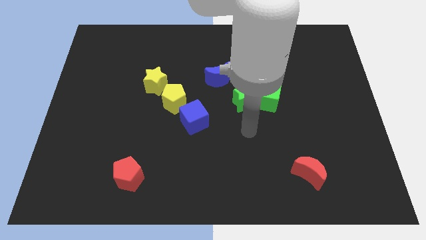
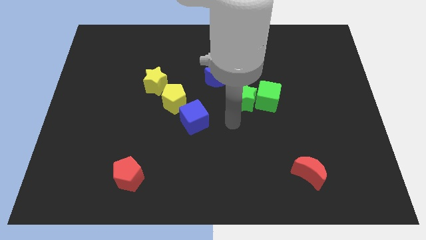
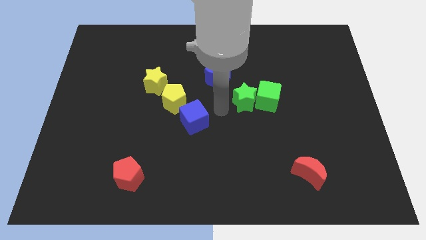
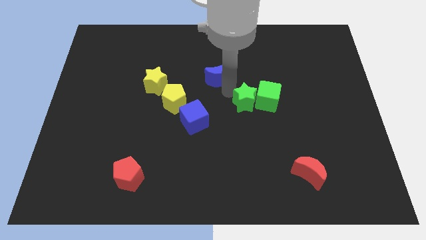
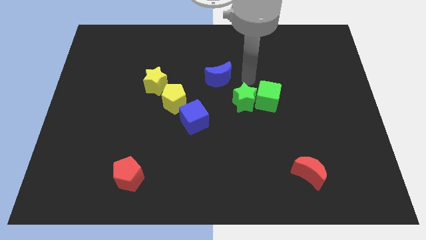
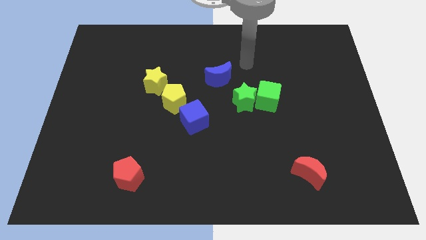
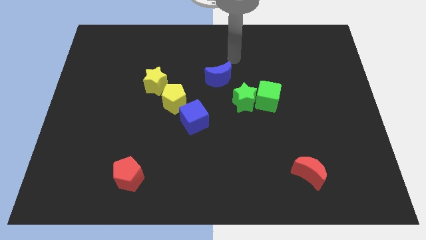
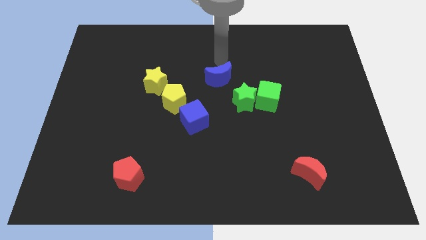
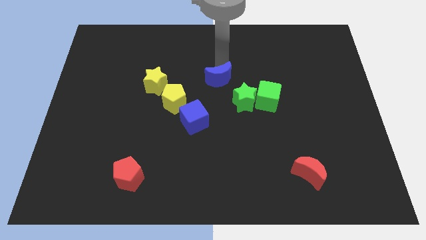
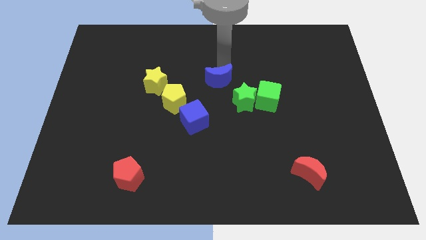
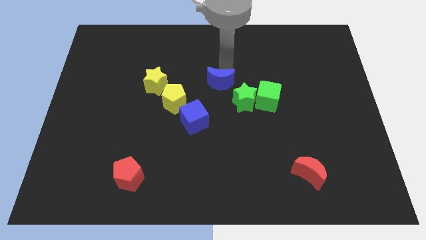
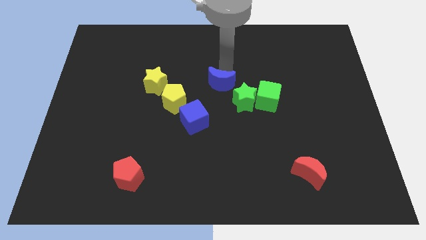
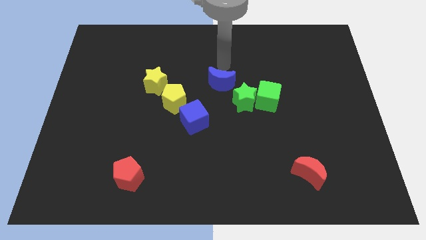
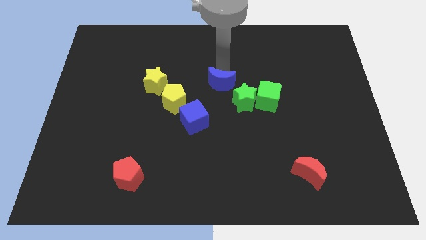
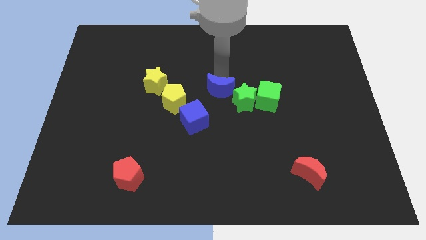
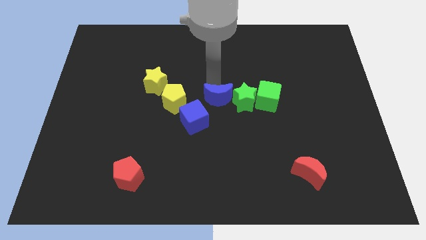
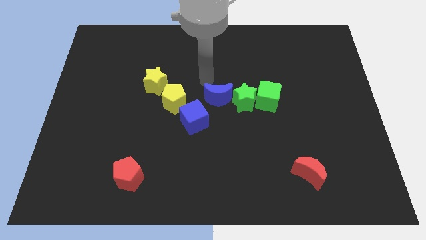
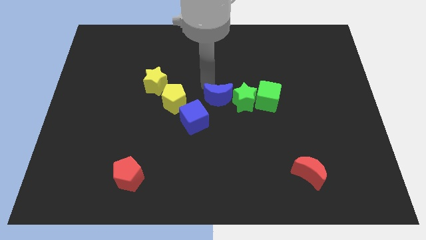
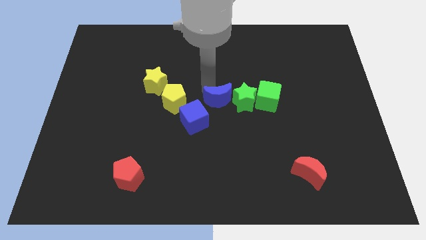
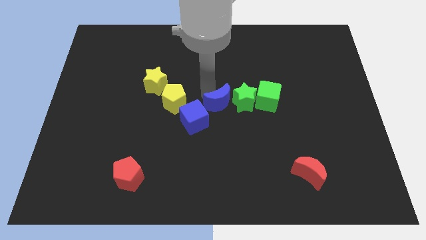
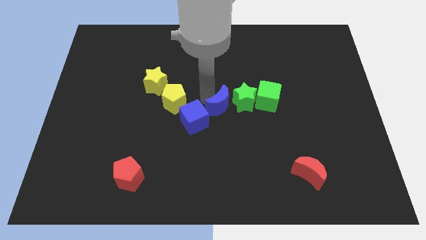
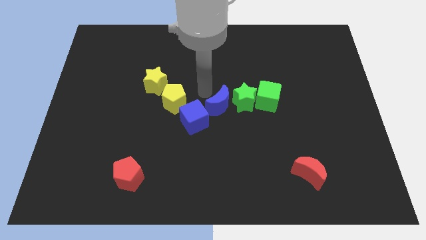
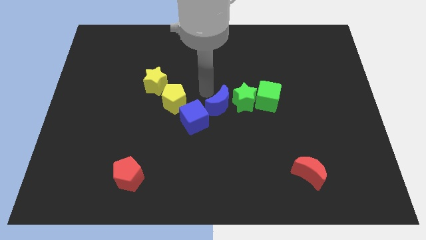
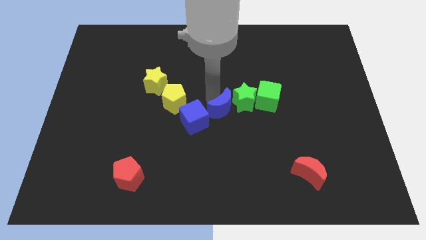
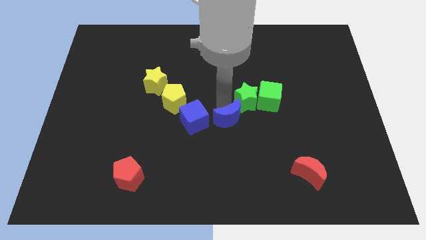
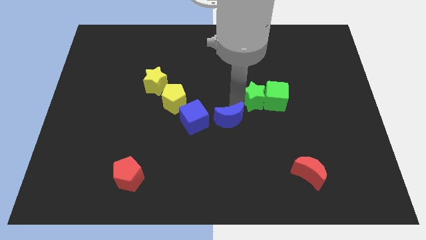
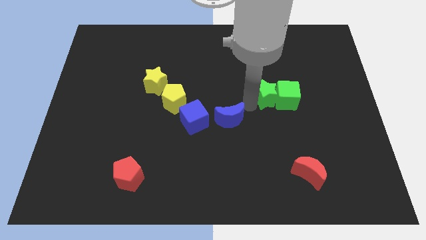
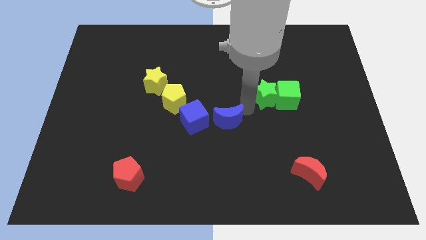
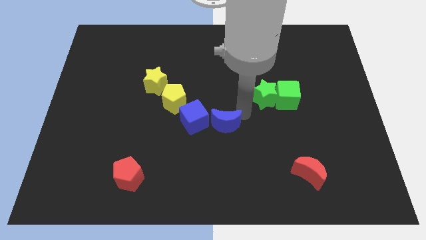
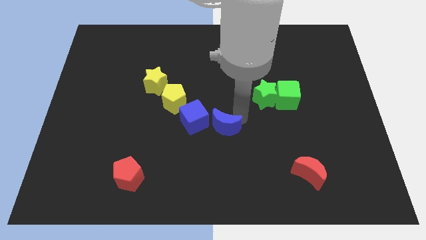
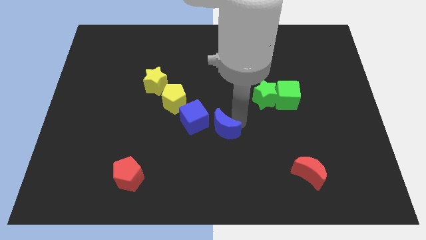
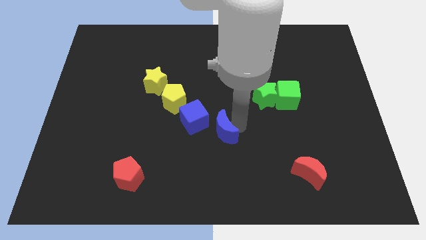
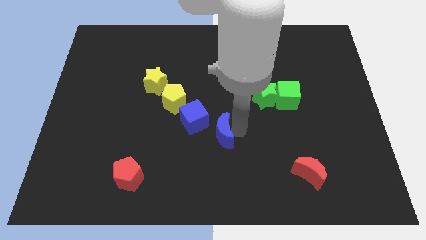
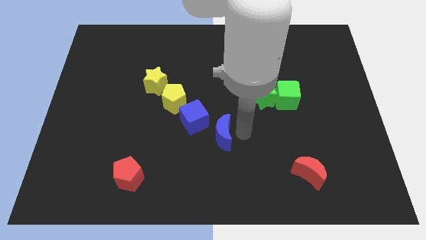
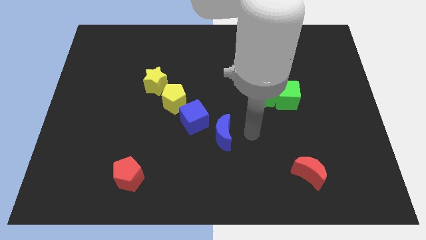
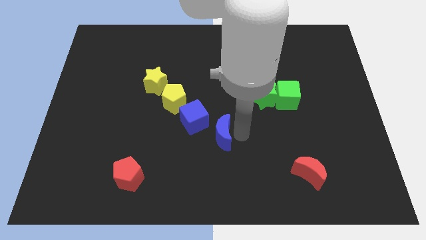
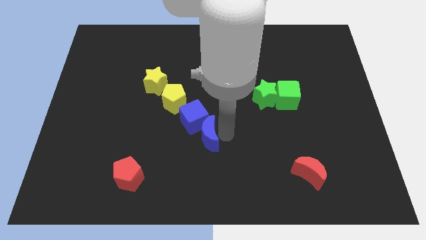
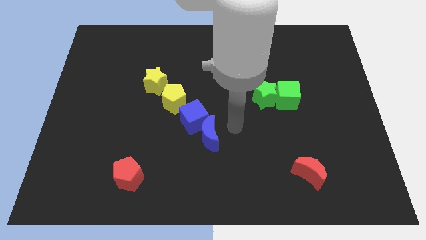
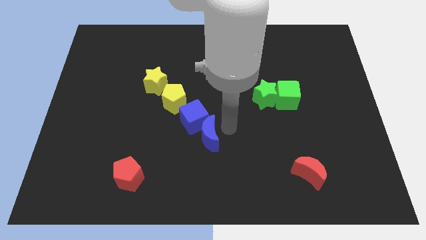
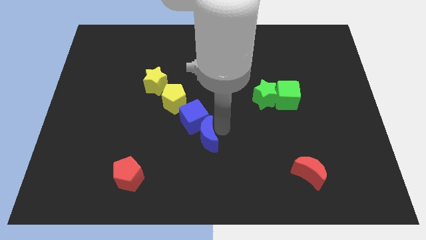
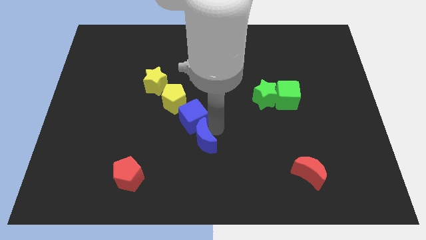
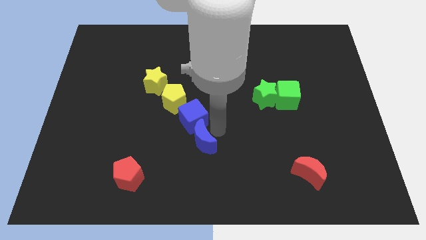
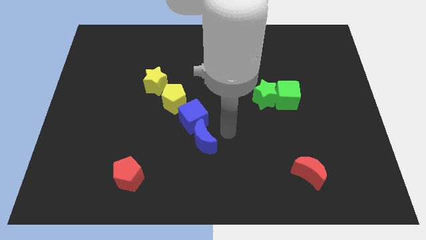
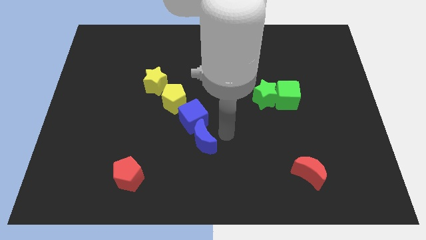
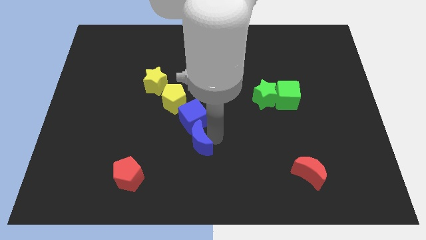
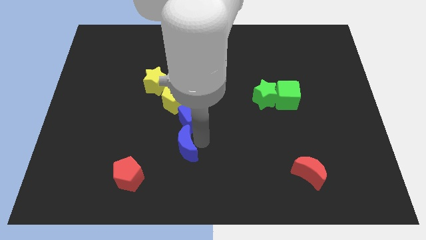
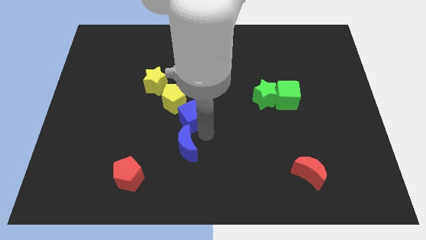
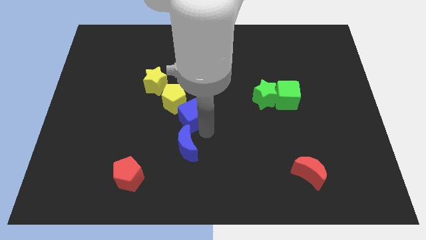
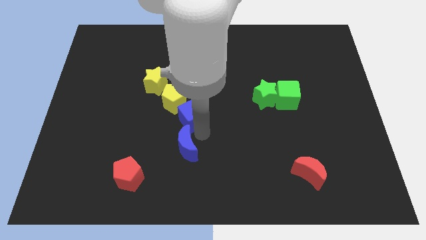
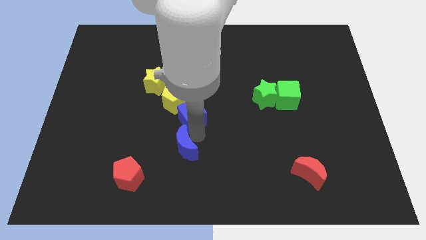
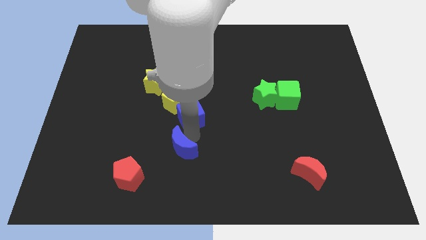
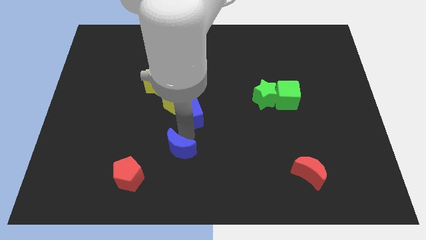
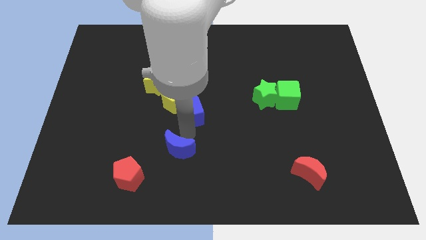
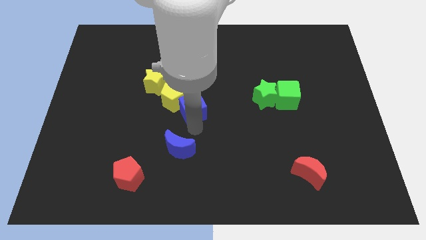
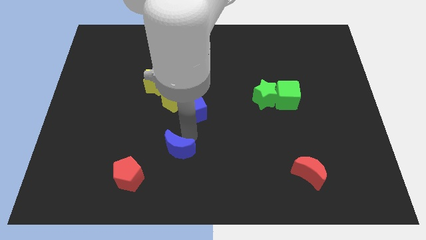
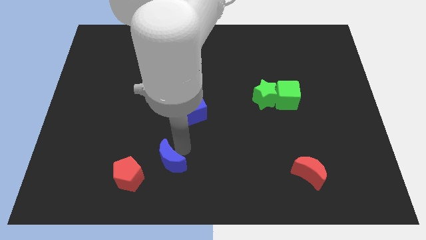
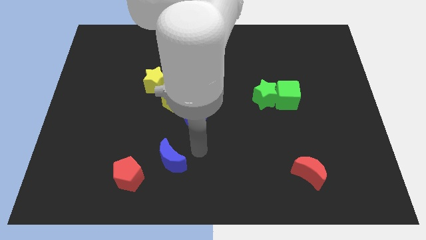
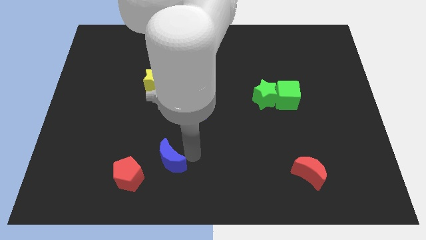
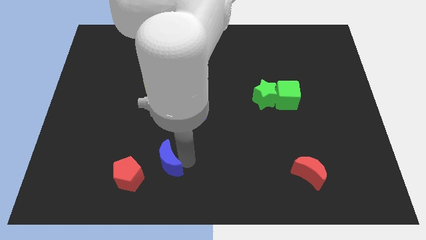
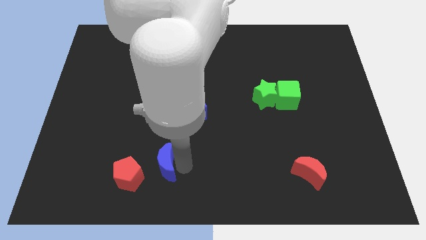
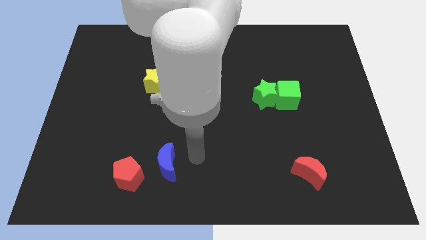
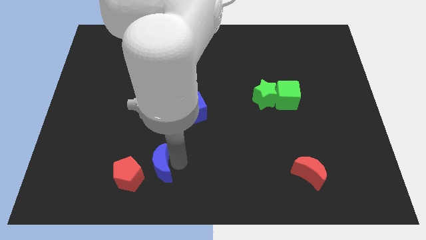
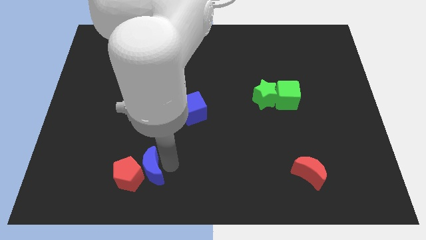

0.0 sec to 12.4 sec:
put the blue moon close to the red pentagon

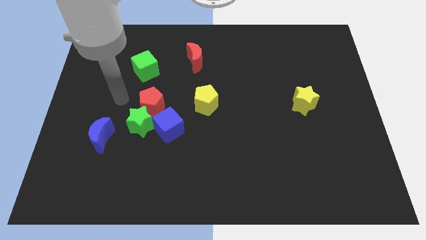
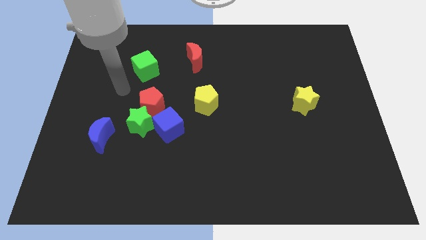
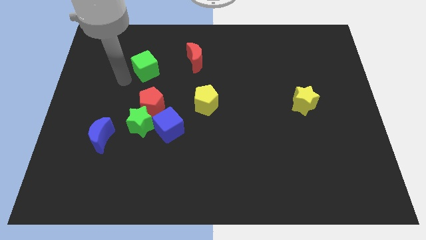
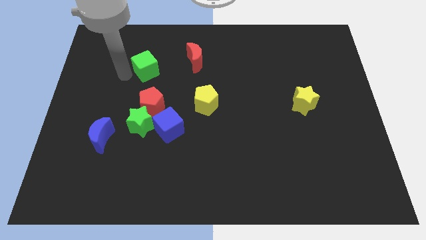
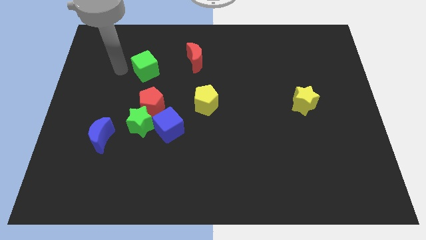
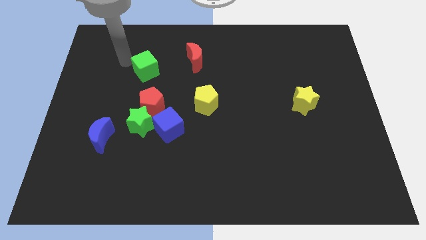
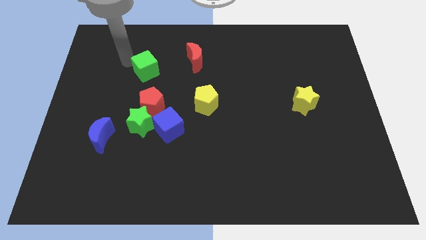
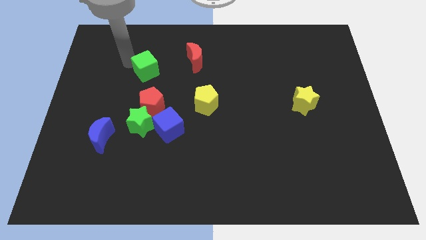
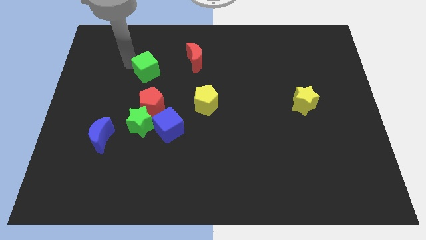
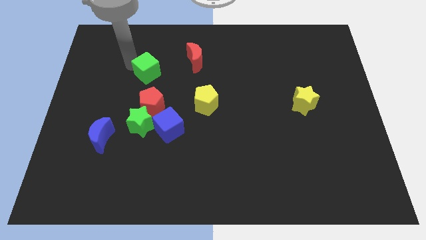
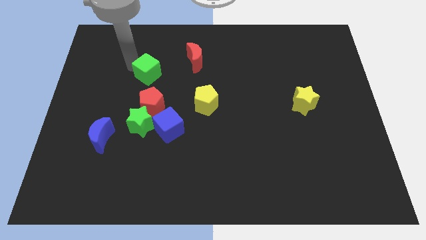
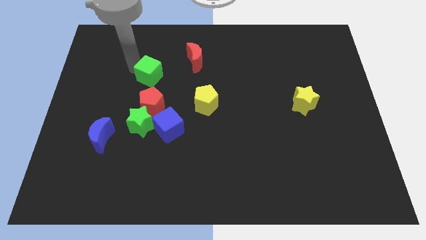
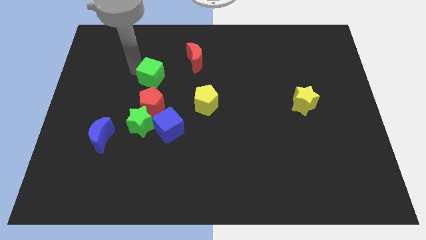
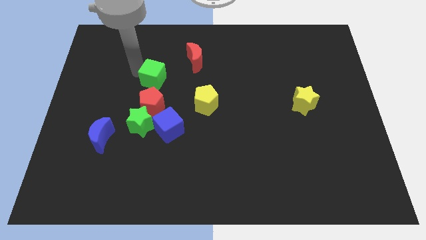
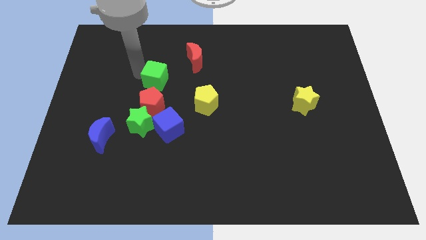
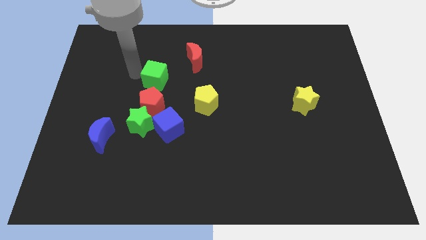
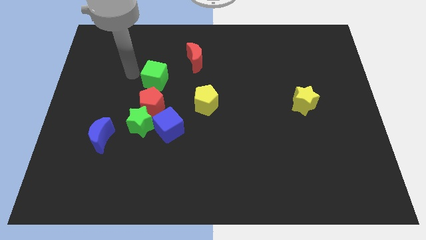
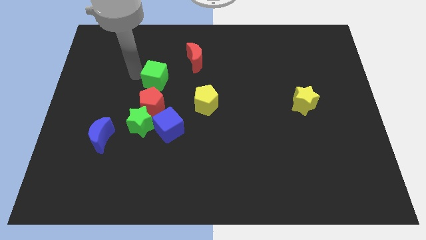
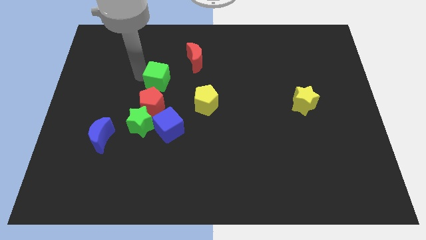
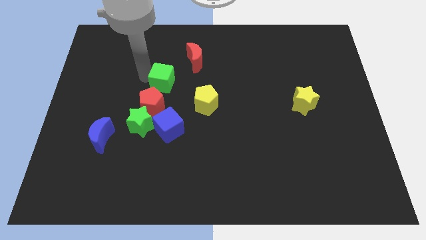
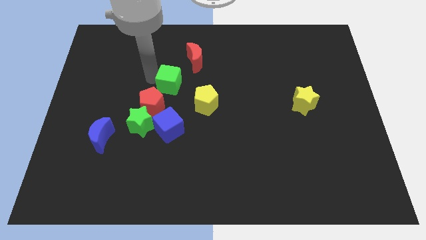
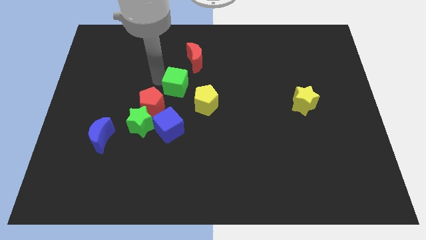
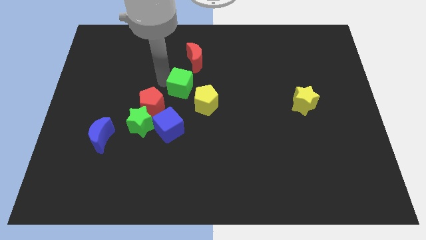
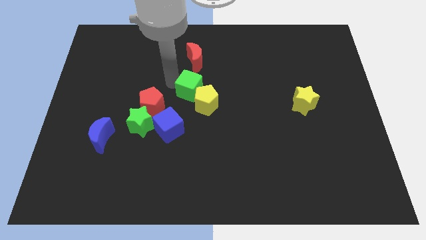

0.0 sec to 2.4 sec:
push the green cube next to the yellow pentagon
